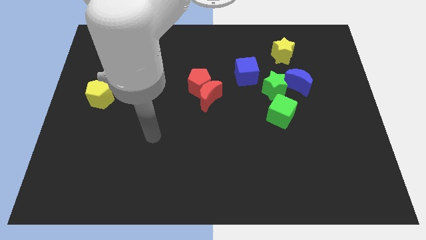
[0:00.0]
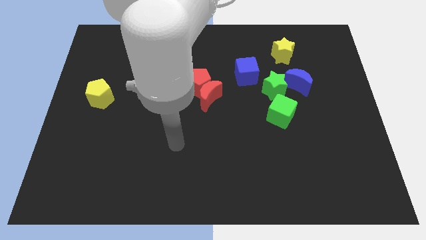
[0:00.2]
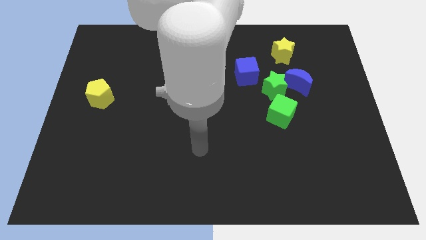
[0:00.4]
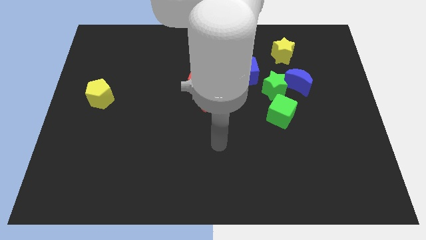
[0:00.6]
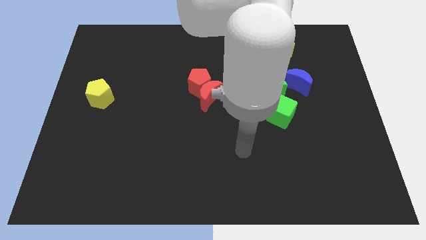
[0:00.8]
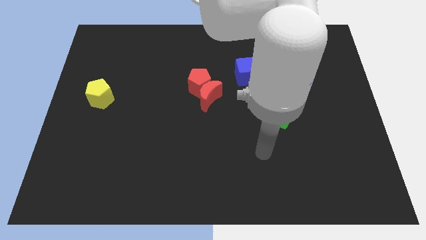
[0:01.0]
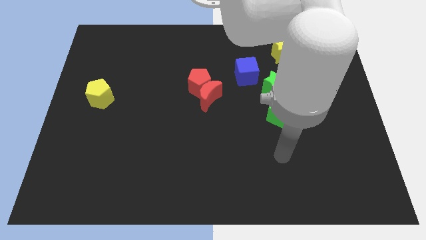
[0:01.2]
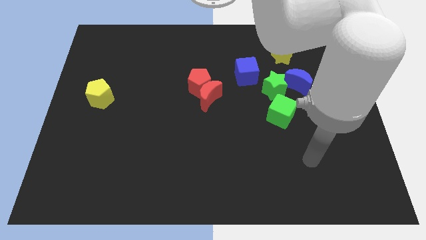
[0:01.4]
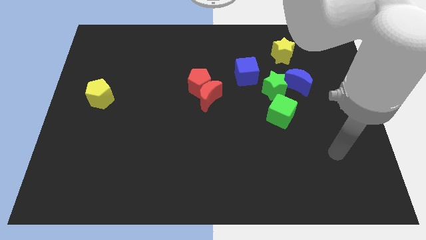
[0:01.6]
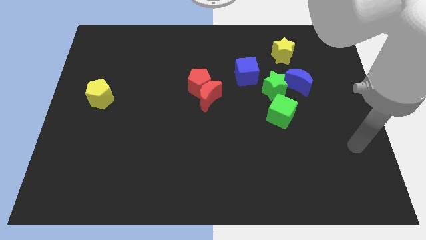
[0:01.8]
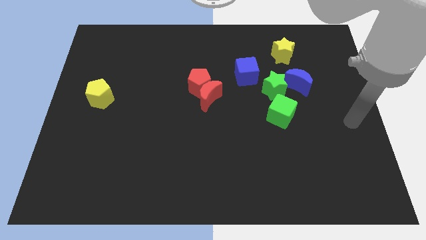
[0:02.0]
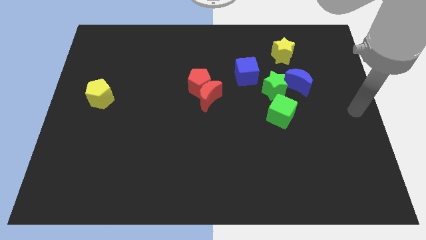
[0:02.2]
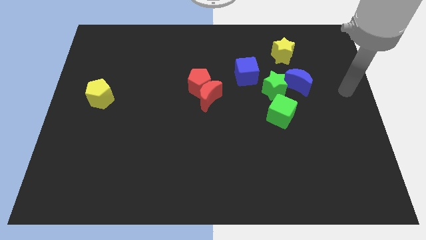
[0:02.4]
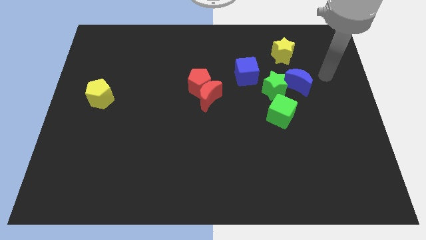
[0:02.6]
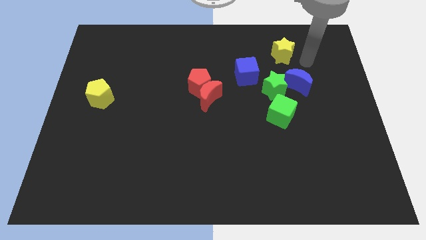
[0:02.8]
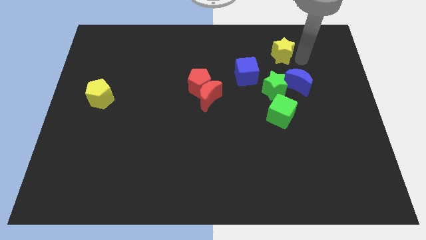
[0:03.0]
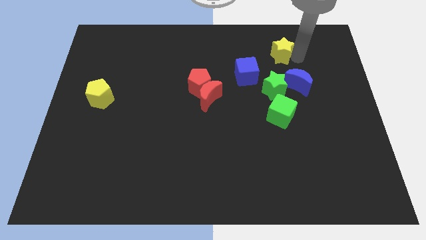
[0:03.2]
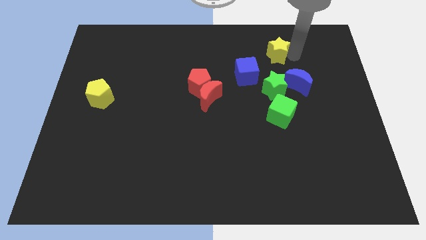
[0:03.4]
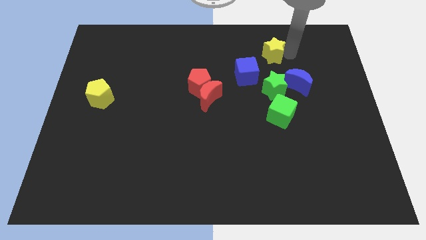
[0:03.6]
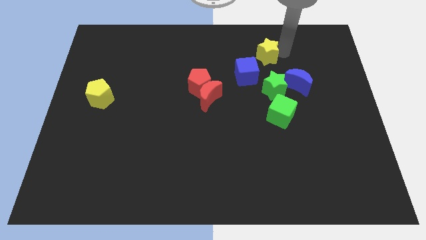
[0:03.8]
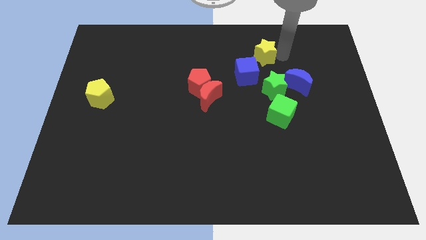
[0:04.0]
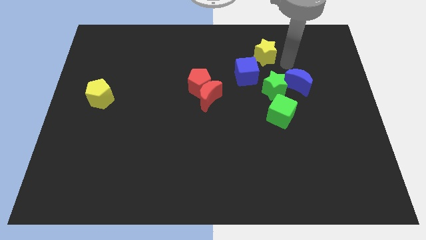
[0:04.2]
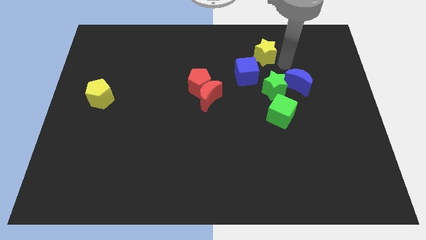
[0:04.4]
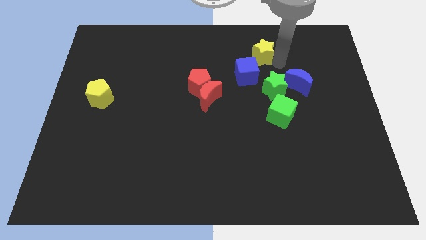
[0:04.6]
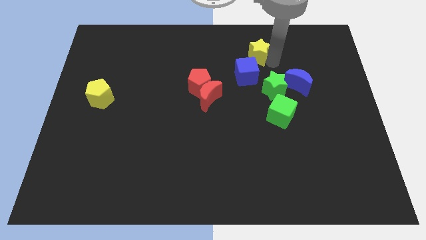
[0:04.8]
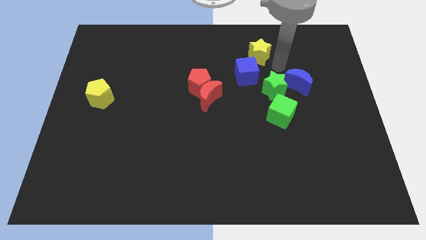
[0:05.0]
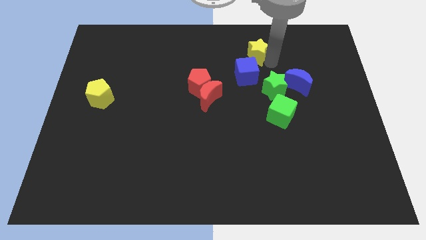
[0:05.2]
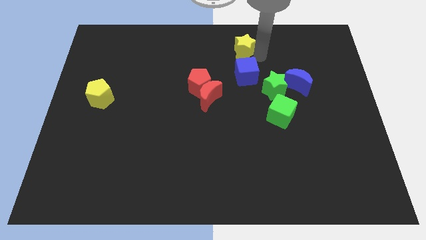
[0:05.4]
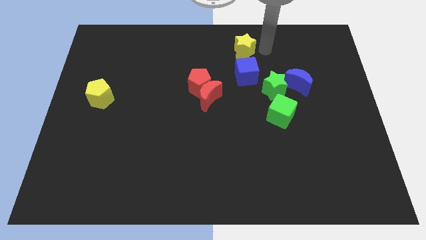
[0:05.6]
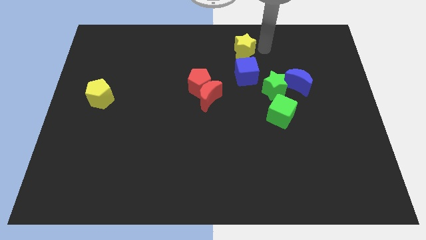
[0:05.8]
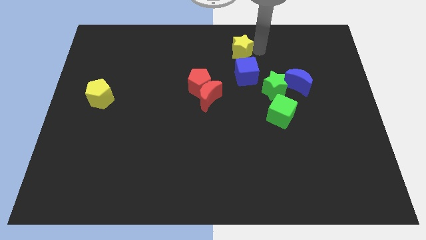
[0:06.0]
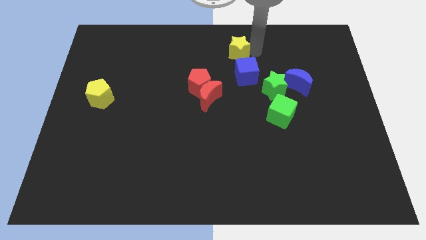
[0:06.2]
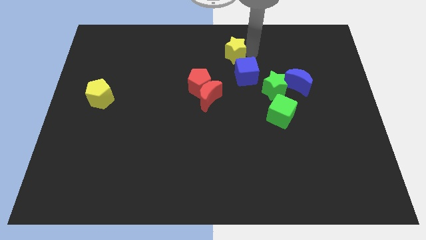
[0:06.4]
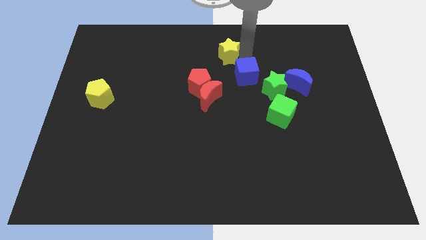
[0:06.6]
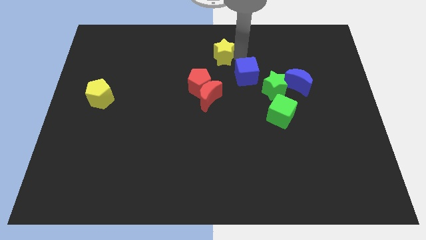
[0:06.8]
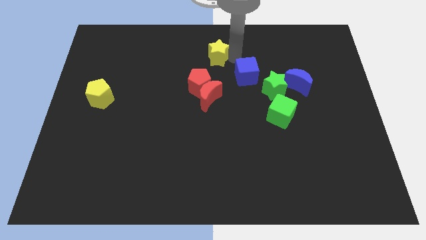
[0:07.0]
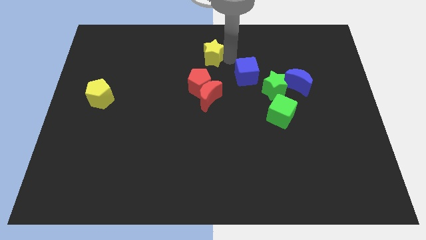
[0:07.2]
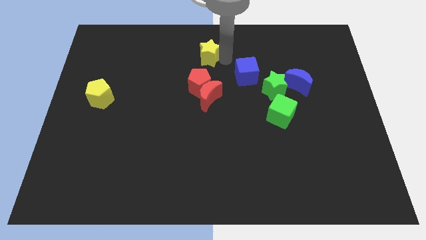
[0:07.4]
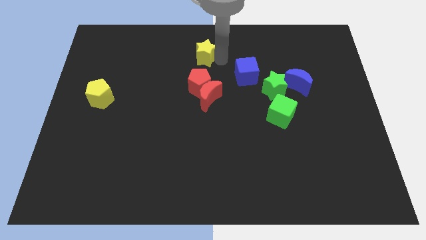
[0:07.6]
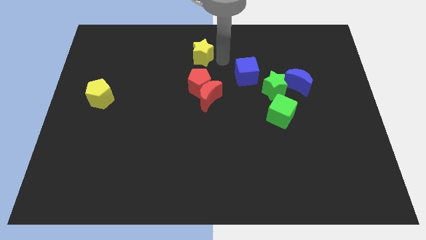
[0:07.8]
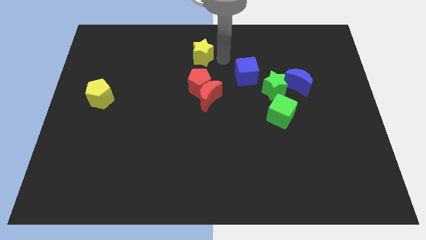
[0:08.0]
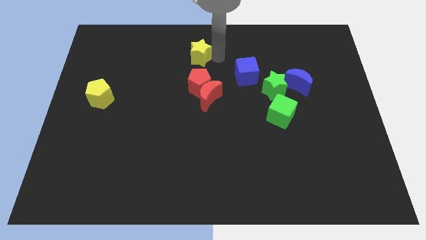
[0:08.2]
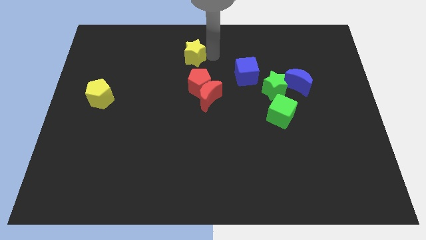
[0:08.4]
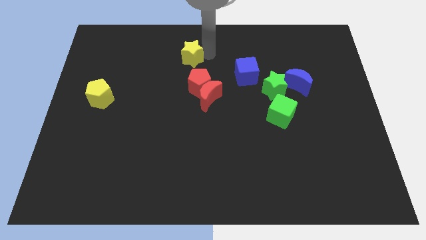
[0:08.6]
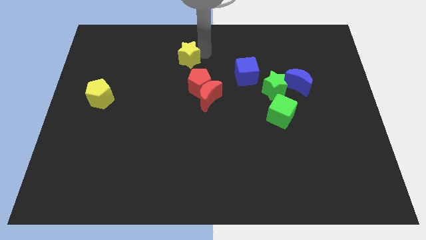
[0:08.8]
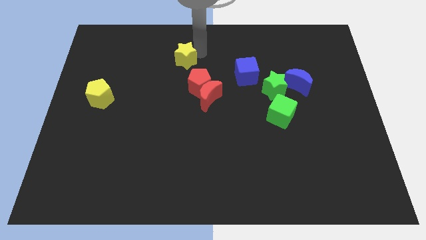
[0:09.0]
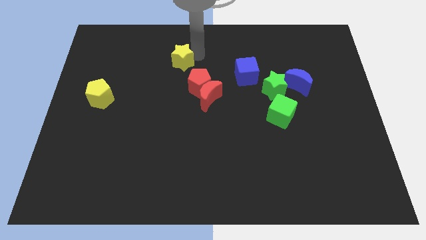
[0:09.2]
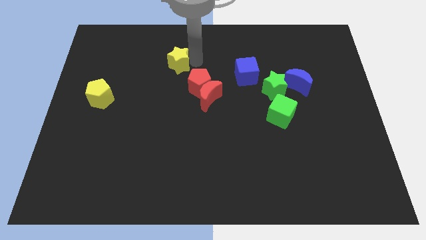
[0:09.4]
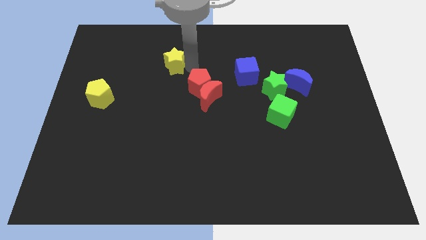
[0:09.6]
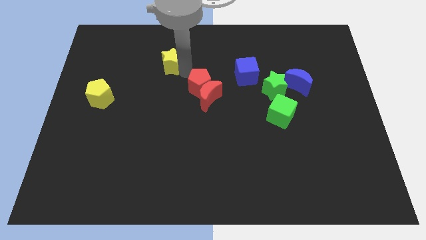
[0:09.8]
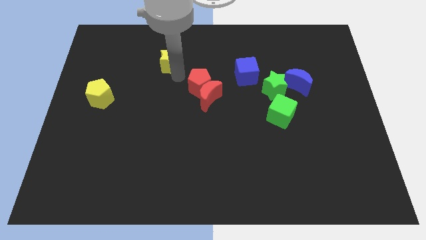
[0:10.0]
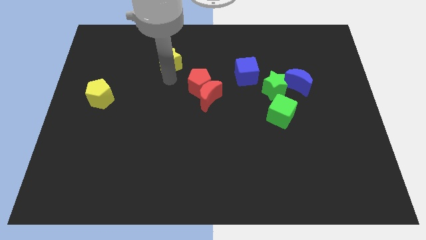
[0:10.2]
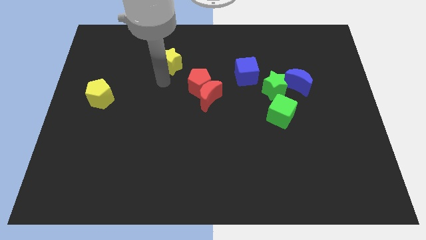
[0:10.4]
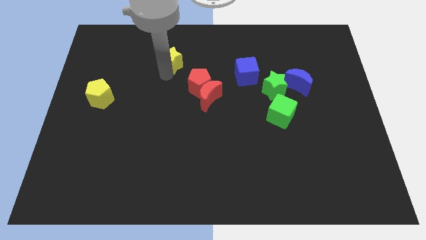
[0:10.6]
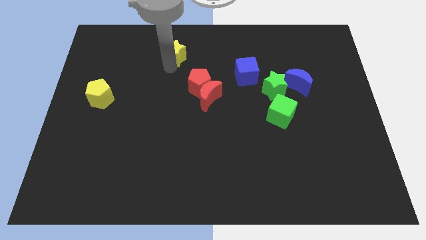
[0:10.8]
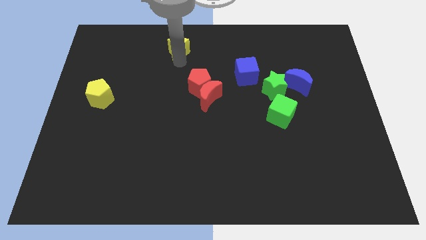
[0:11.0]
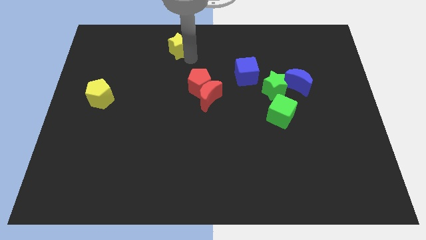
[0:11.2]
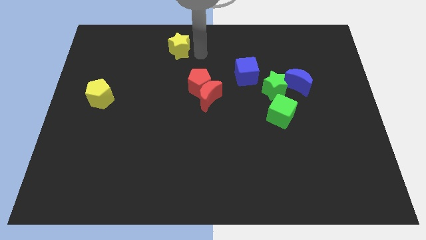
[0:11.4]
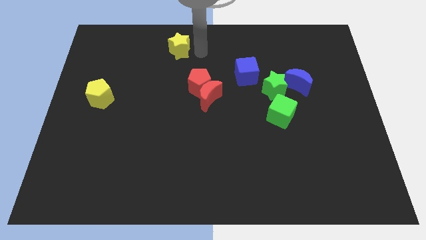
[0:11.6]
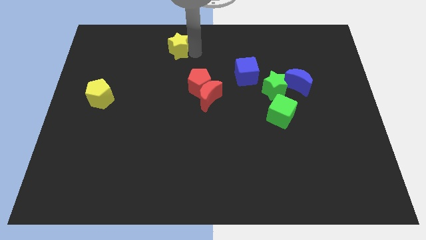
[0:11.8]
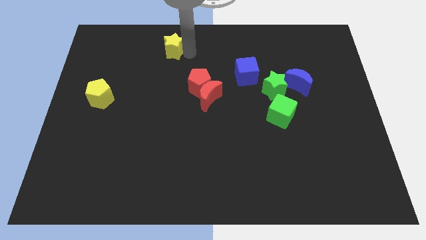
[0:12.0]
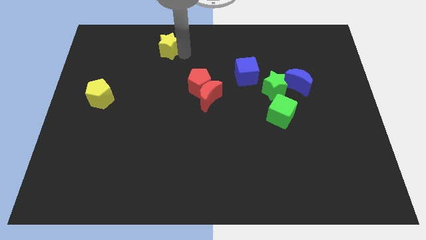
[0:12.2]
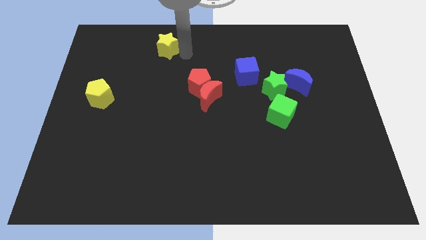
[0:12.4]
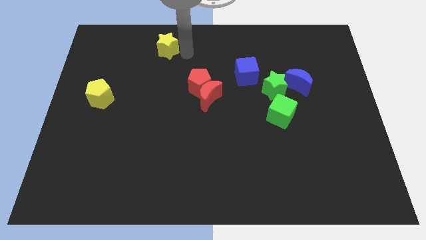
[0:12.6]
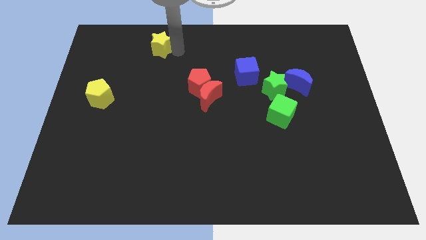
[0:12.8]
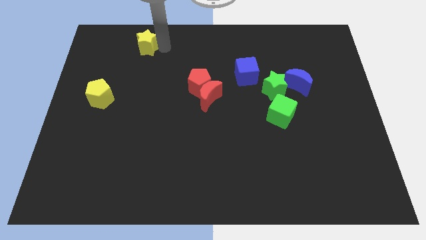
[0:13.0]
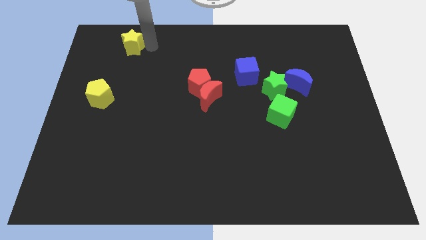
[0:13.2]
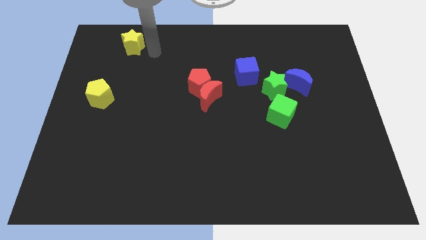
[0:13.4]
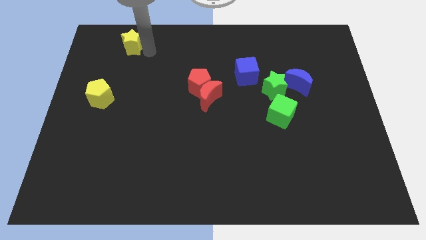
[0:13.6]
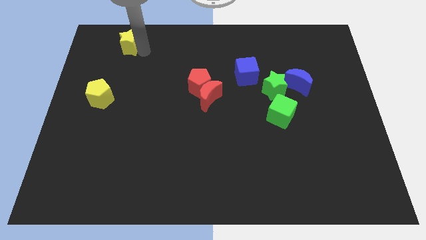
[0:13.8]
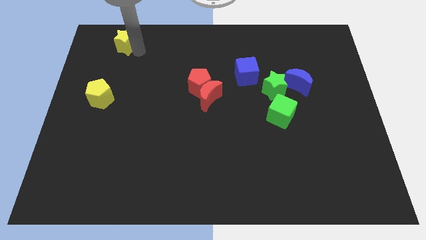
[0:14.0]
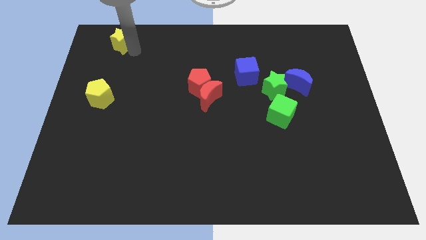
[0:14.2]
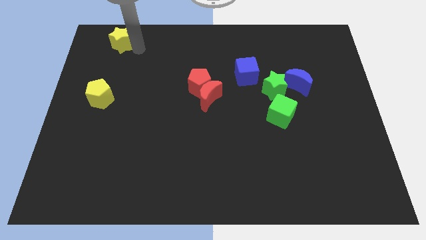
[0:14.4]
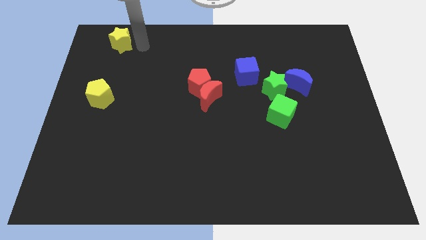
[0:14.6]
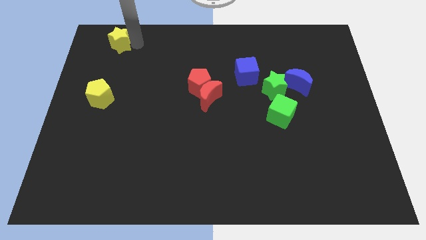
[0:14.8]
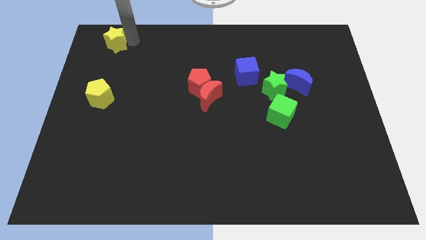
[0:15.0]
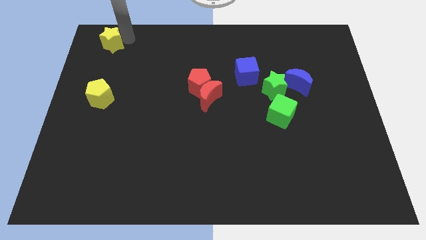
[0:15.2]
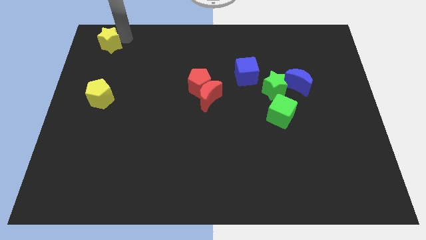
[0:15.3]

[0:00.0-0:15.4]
slide the yellow star to the top left of the board
